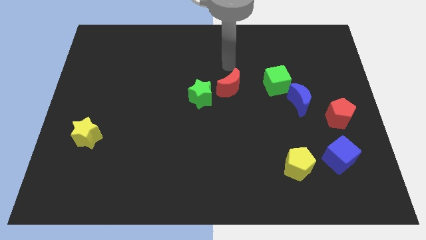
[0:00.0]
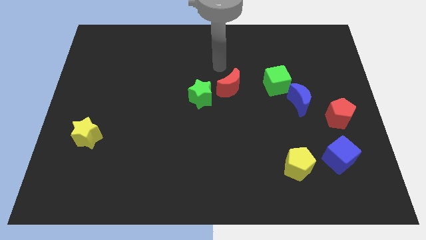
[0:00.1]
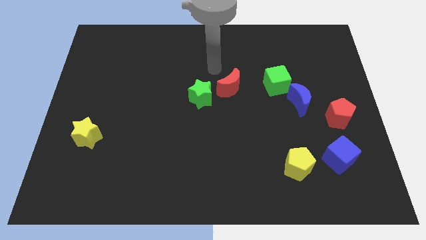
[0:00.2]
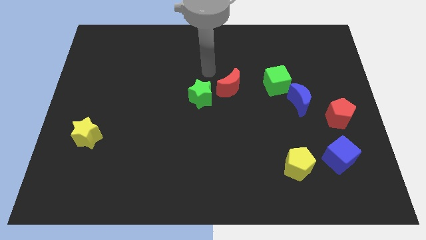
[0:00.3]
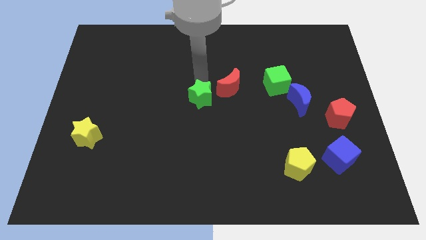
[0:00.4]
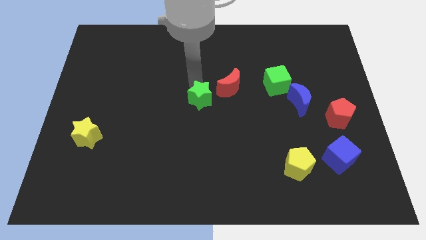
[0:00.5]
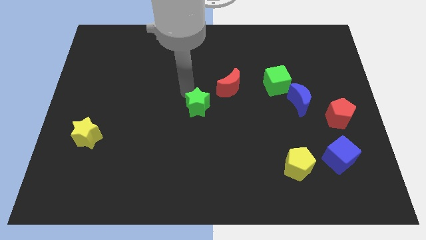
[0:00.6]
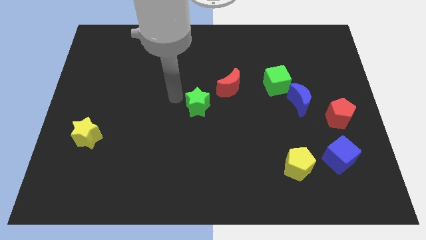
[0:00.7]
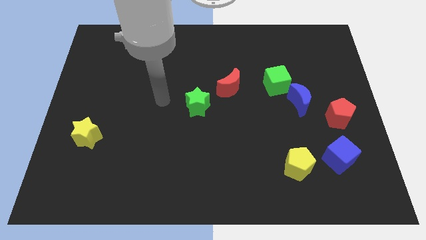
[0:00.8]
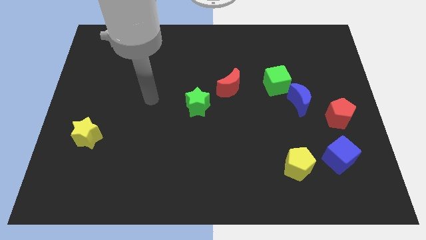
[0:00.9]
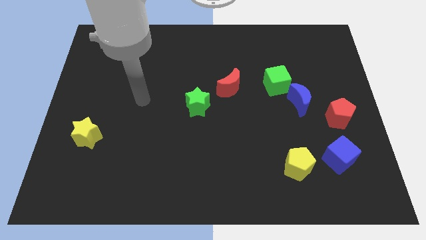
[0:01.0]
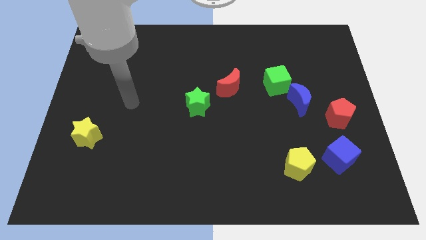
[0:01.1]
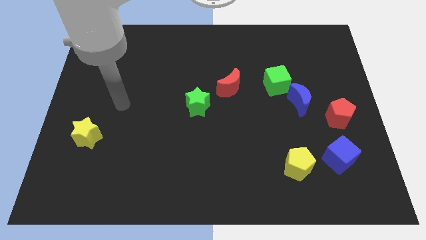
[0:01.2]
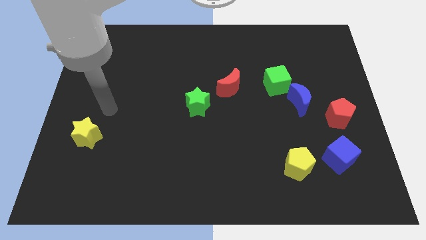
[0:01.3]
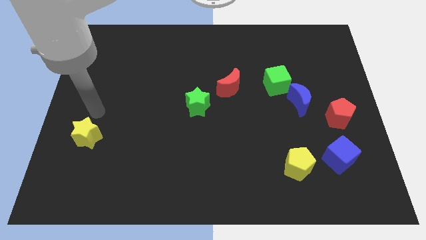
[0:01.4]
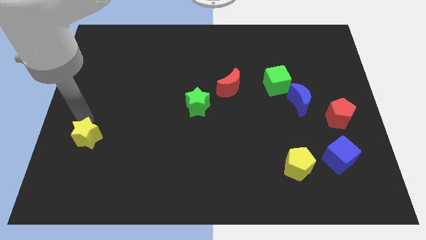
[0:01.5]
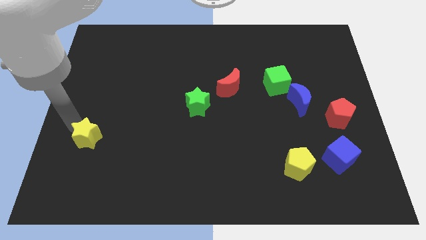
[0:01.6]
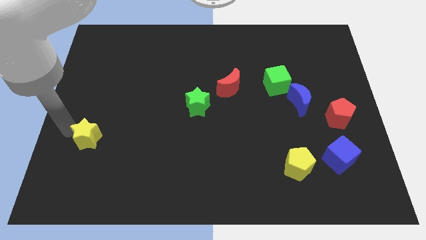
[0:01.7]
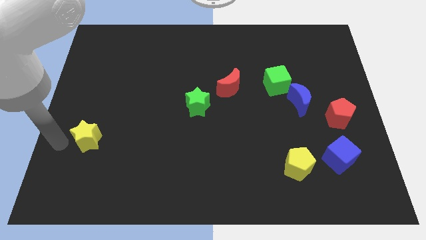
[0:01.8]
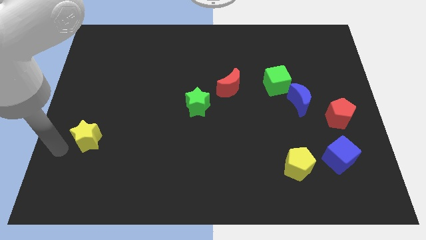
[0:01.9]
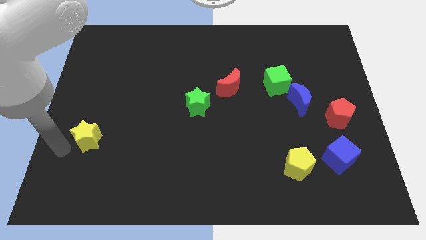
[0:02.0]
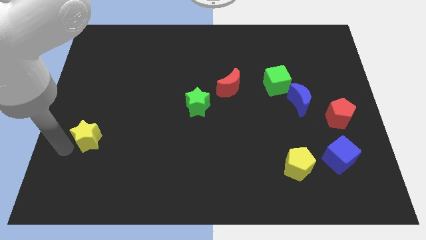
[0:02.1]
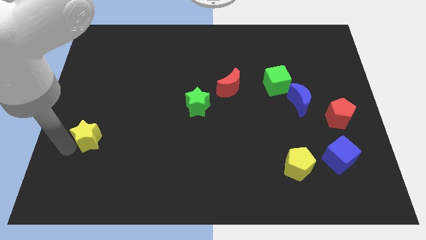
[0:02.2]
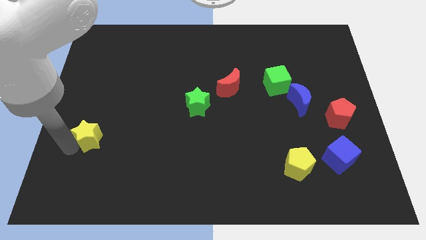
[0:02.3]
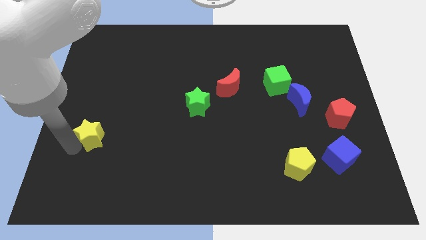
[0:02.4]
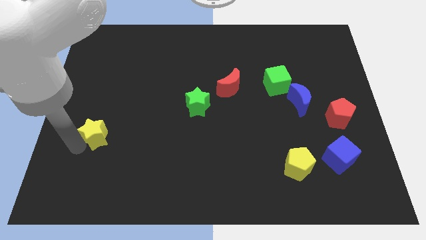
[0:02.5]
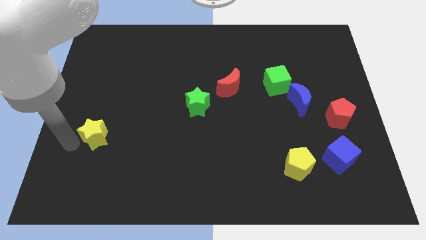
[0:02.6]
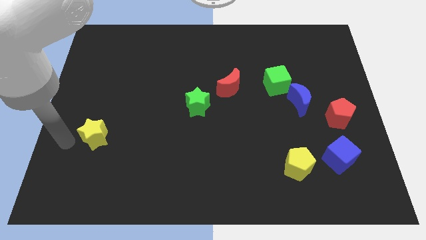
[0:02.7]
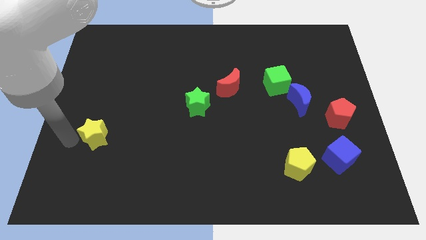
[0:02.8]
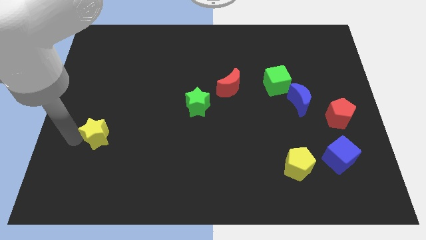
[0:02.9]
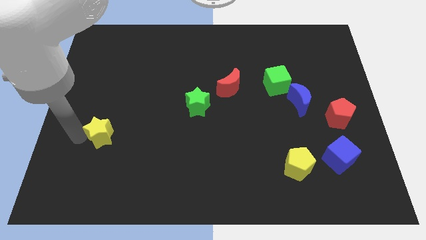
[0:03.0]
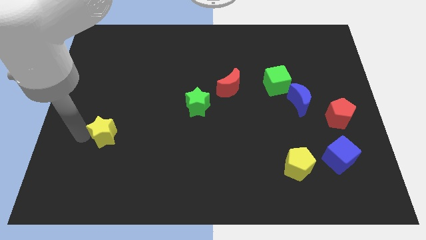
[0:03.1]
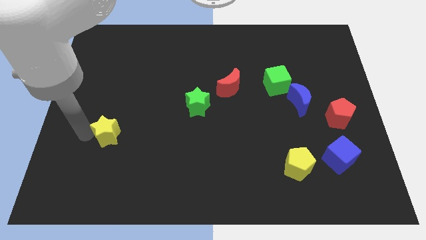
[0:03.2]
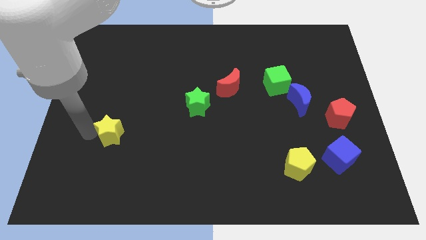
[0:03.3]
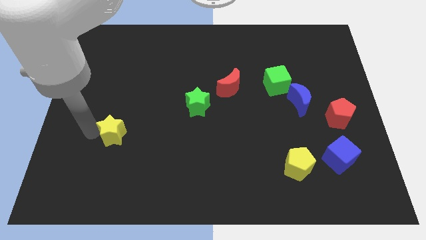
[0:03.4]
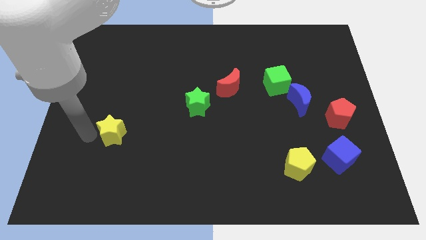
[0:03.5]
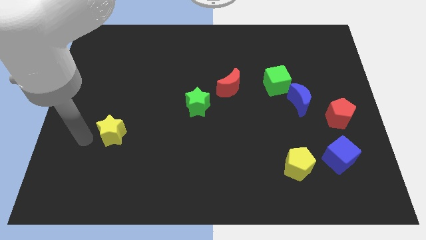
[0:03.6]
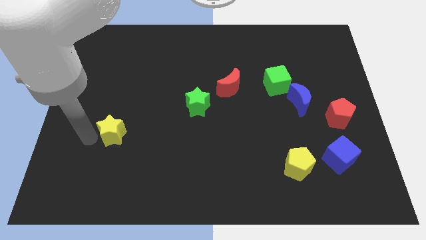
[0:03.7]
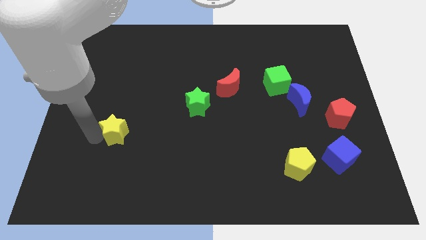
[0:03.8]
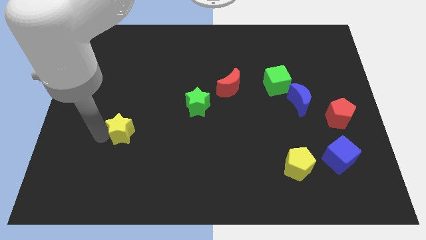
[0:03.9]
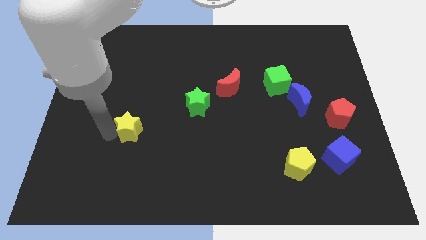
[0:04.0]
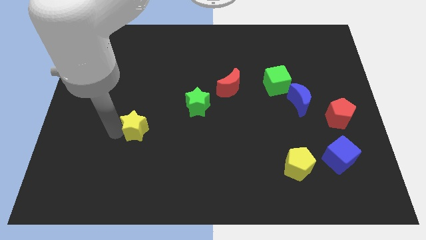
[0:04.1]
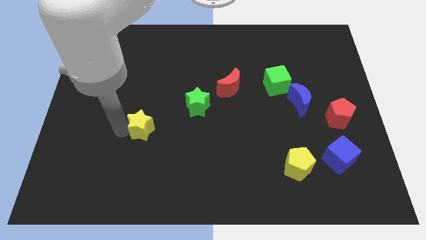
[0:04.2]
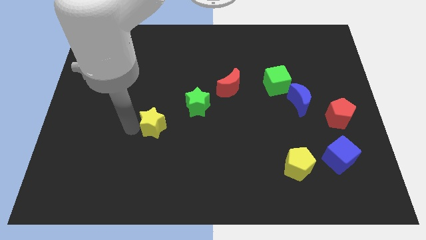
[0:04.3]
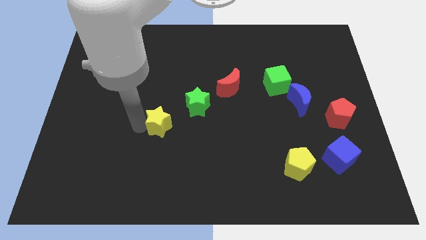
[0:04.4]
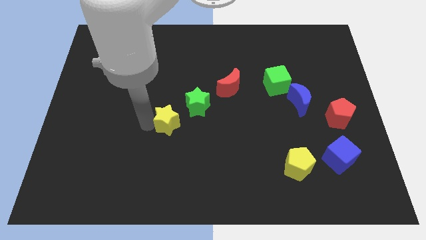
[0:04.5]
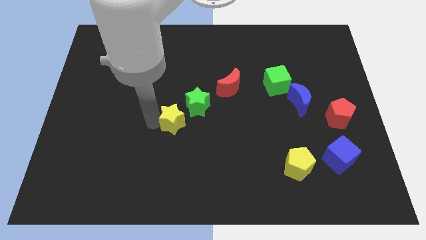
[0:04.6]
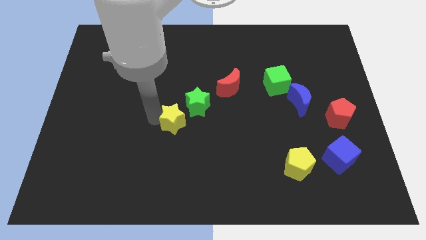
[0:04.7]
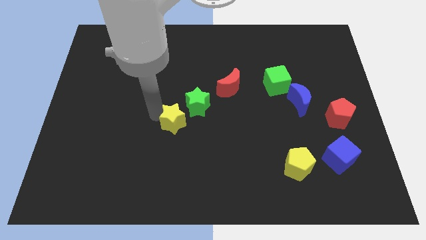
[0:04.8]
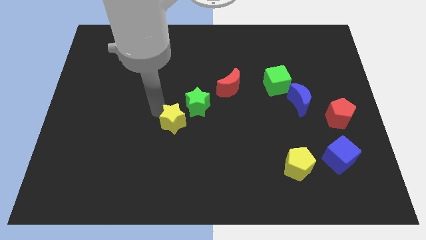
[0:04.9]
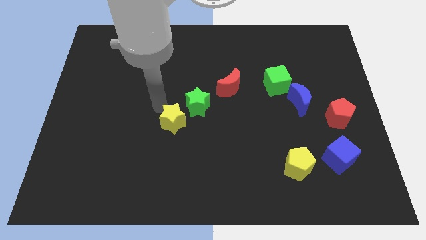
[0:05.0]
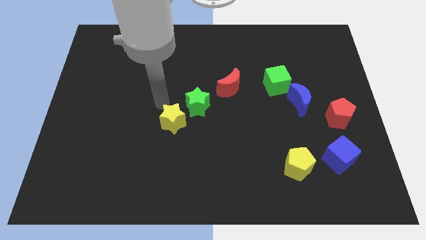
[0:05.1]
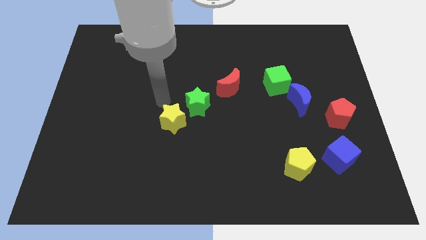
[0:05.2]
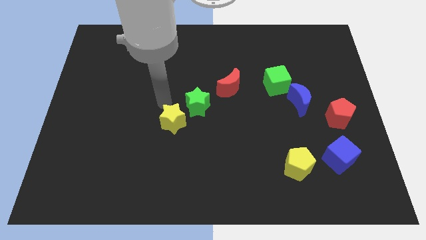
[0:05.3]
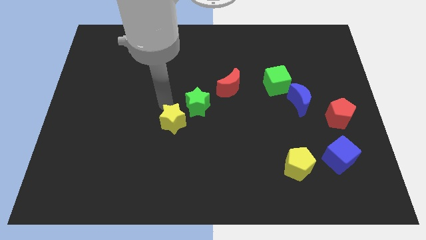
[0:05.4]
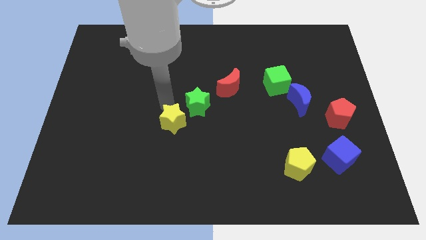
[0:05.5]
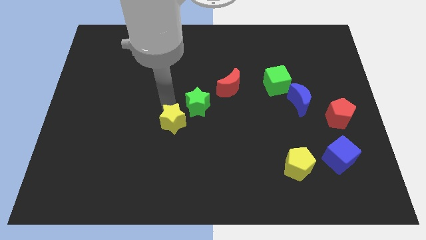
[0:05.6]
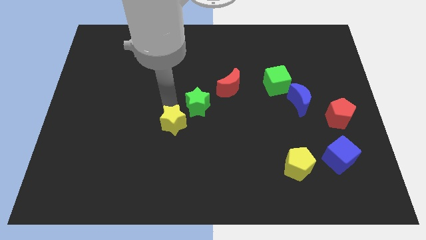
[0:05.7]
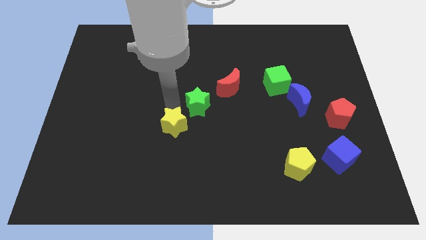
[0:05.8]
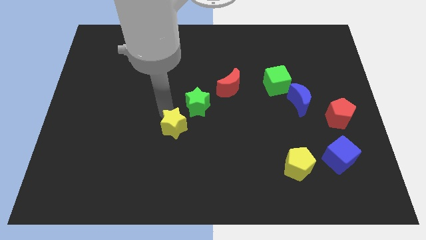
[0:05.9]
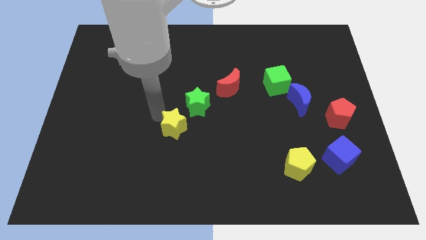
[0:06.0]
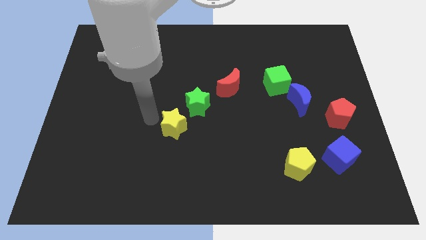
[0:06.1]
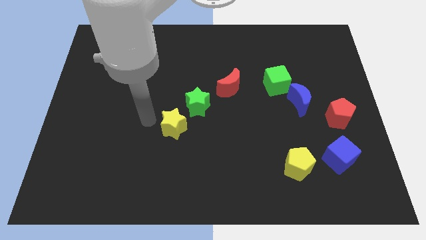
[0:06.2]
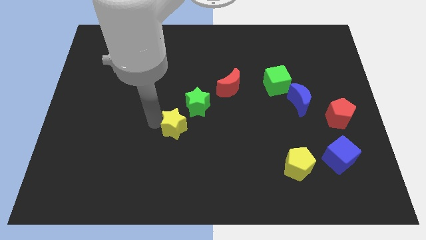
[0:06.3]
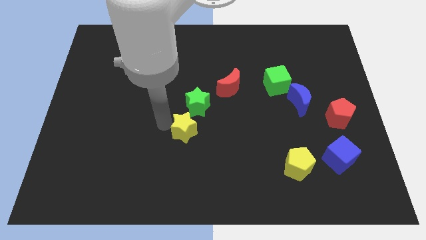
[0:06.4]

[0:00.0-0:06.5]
move the yellow star right

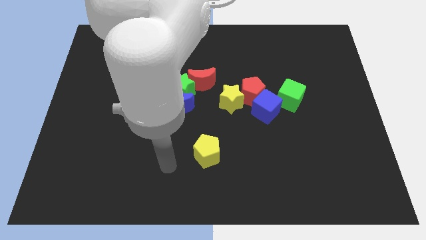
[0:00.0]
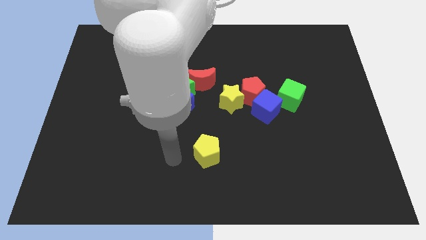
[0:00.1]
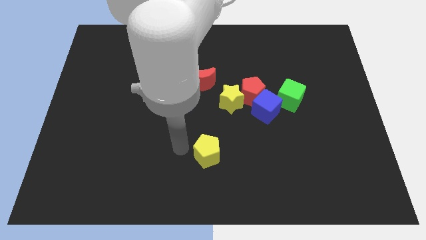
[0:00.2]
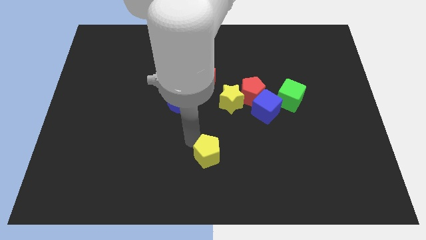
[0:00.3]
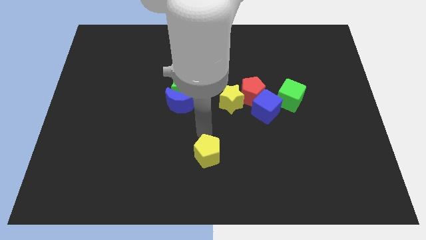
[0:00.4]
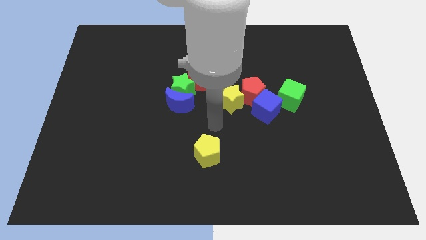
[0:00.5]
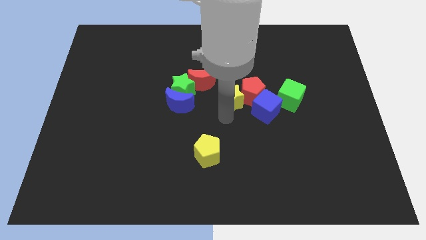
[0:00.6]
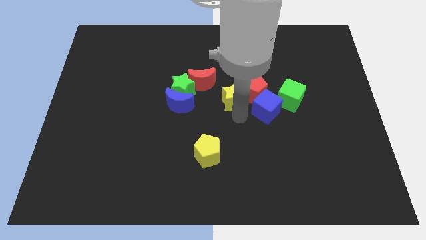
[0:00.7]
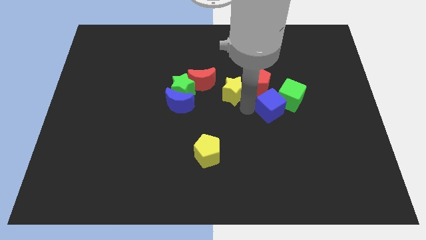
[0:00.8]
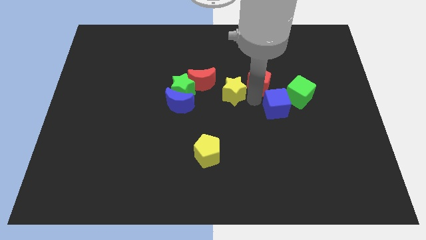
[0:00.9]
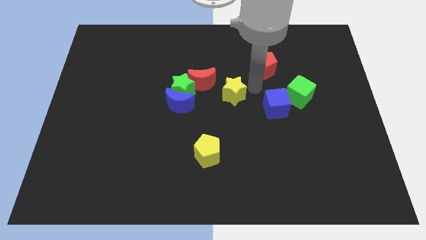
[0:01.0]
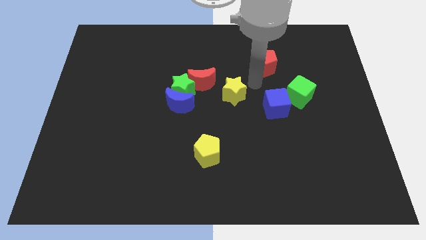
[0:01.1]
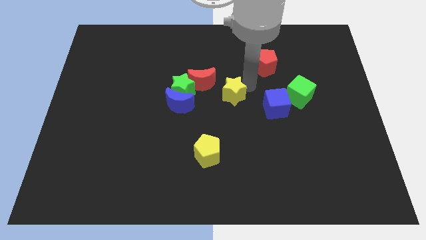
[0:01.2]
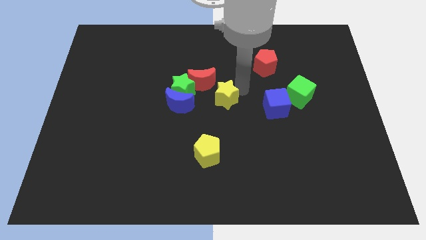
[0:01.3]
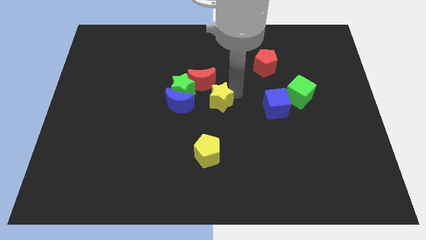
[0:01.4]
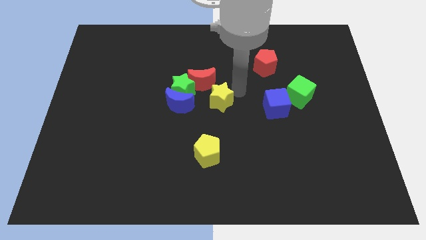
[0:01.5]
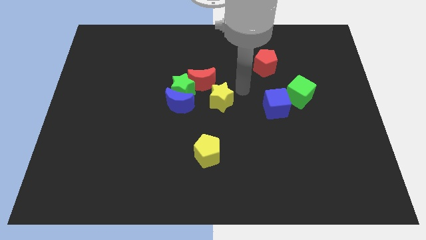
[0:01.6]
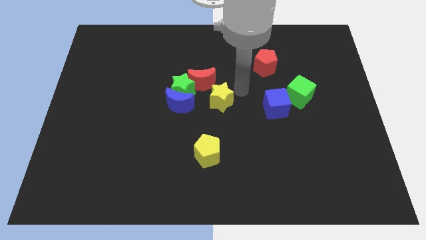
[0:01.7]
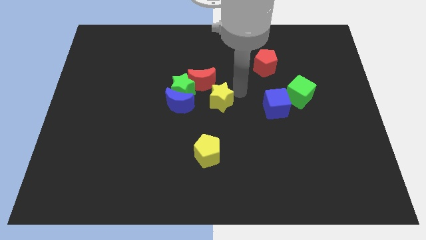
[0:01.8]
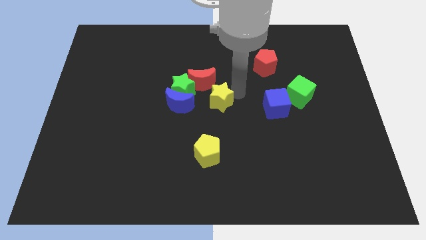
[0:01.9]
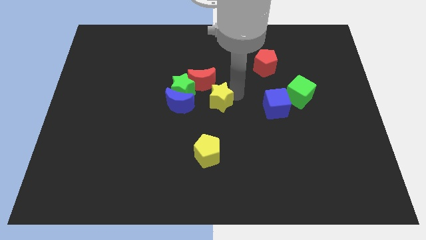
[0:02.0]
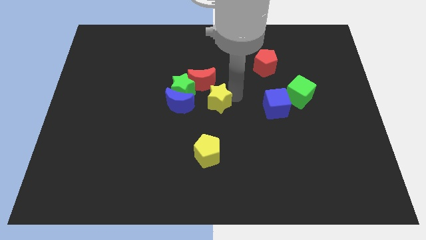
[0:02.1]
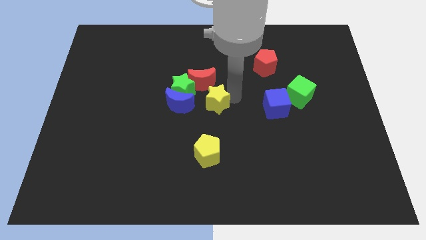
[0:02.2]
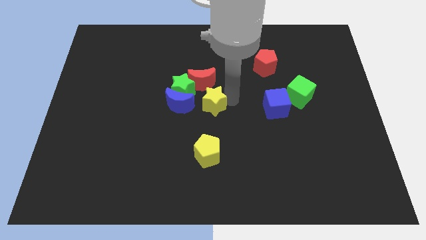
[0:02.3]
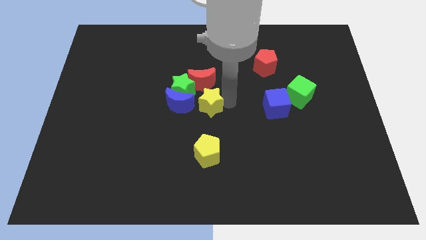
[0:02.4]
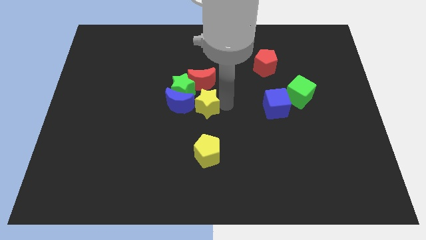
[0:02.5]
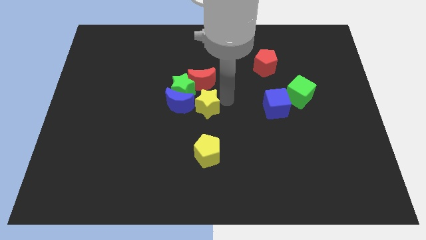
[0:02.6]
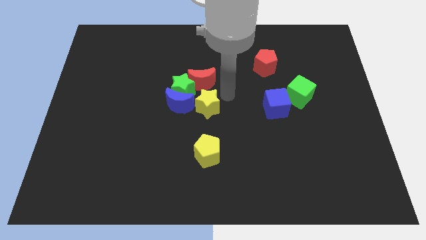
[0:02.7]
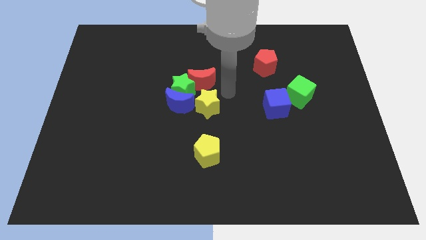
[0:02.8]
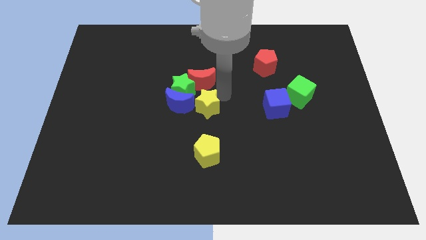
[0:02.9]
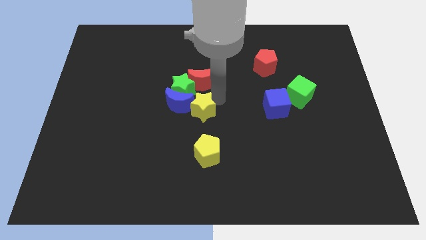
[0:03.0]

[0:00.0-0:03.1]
move the yellow star to the left a little bit
